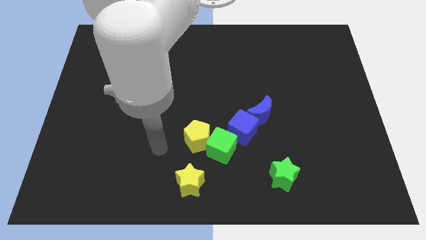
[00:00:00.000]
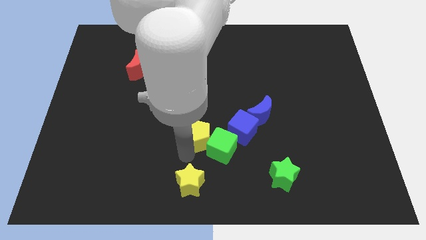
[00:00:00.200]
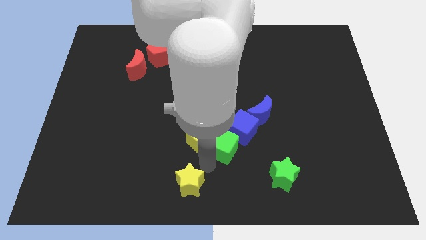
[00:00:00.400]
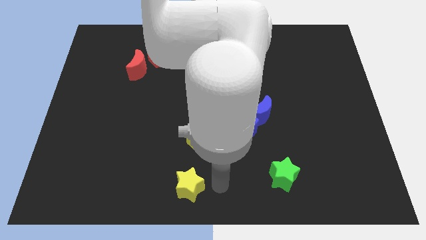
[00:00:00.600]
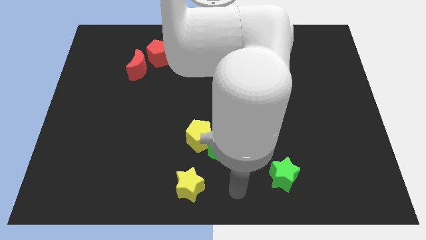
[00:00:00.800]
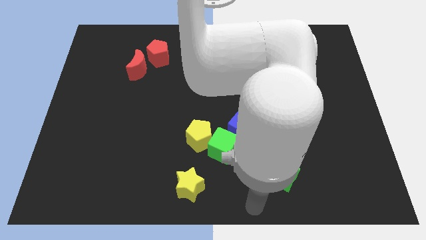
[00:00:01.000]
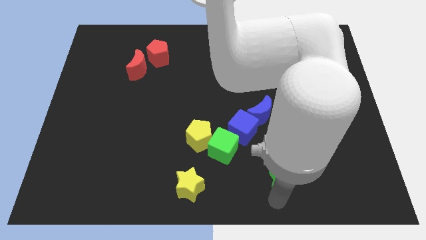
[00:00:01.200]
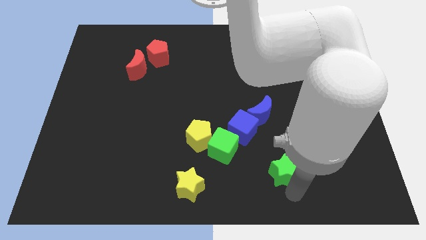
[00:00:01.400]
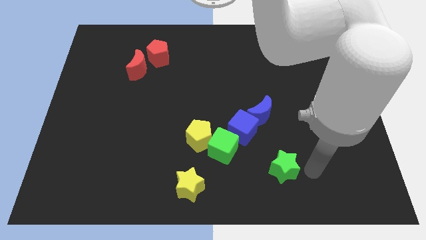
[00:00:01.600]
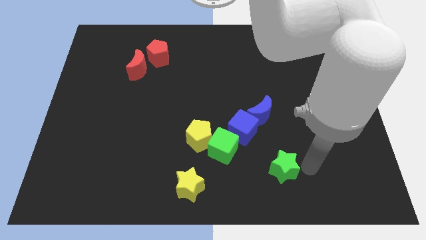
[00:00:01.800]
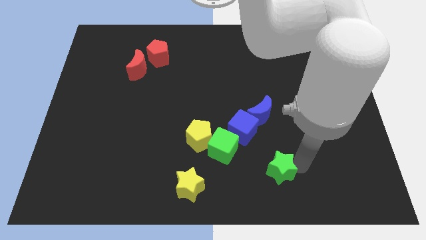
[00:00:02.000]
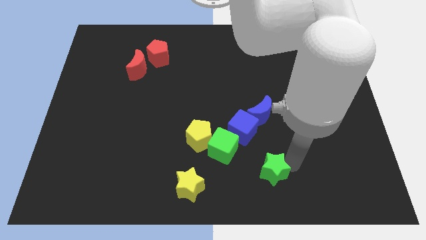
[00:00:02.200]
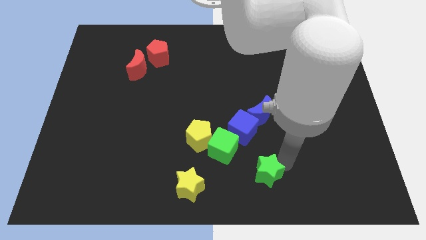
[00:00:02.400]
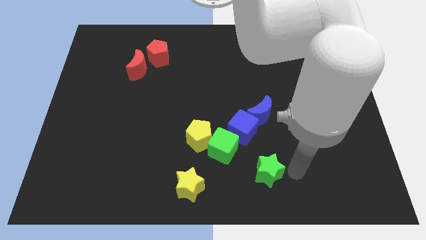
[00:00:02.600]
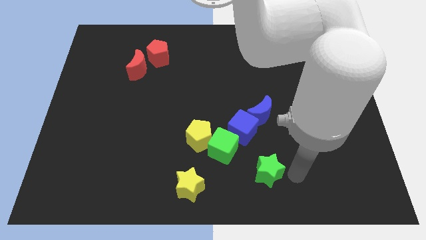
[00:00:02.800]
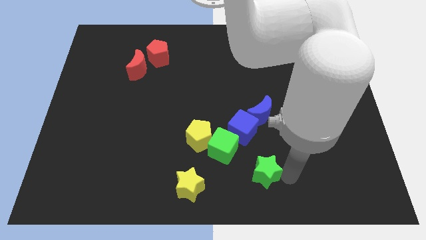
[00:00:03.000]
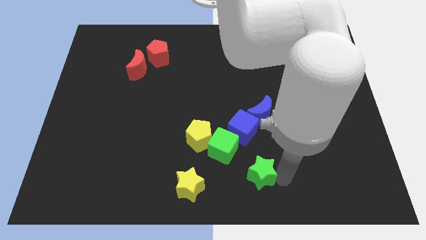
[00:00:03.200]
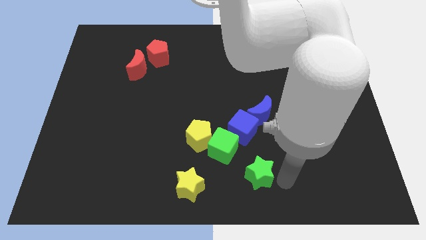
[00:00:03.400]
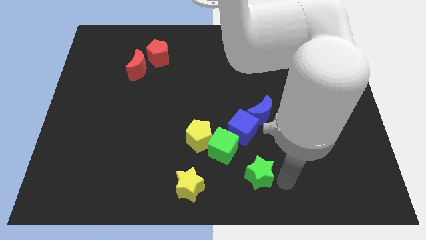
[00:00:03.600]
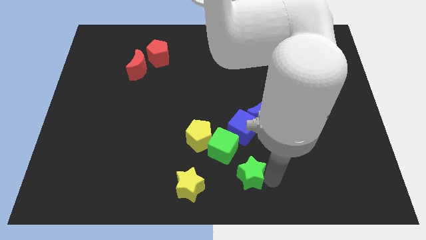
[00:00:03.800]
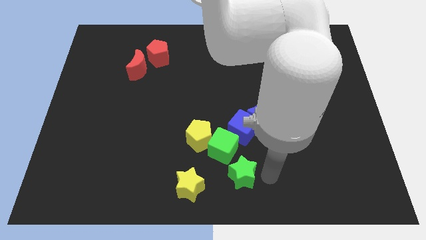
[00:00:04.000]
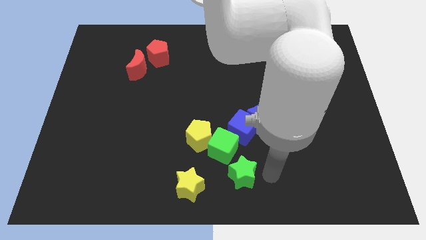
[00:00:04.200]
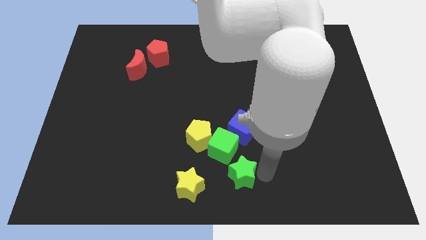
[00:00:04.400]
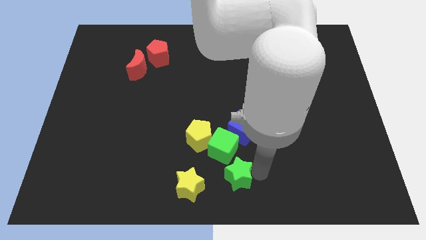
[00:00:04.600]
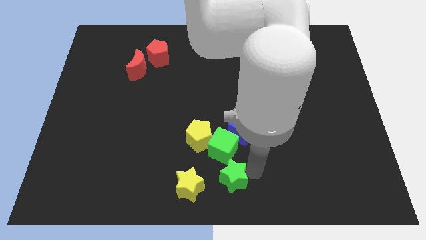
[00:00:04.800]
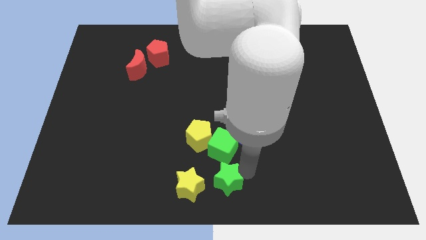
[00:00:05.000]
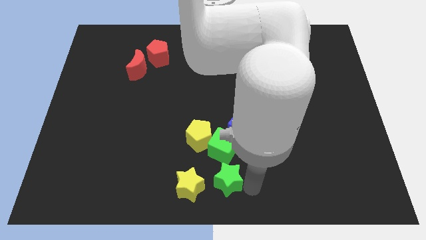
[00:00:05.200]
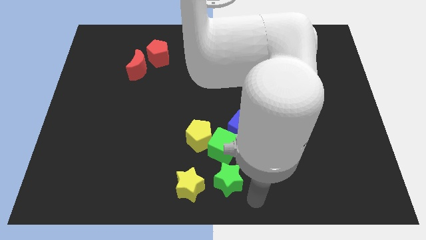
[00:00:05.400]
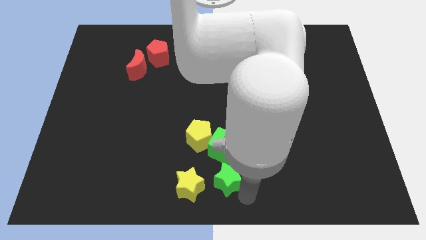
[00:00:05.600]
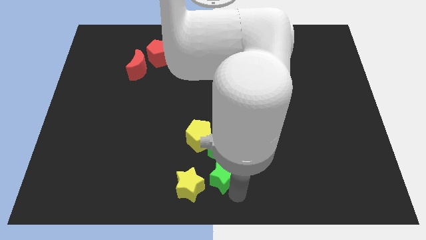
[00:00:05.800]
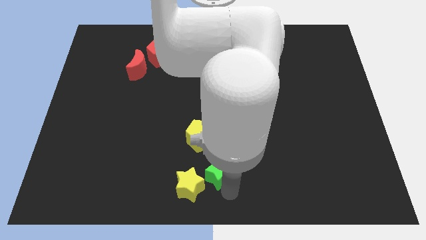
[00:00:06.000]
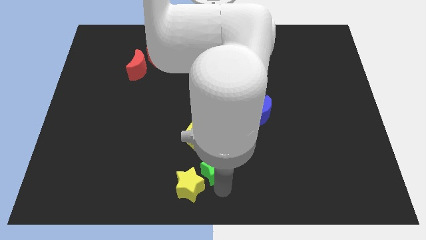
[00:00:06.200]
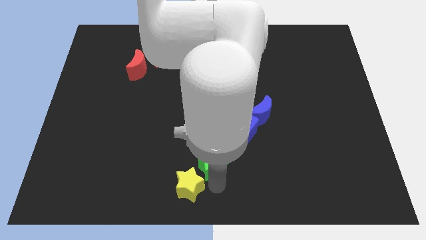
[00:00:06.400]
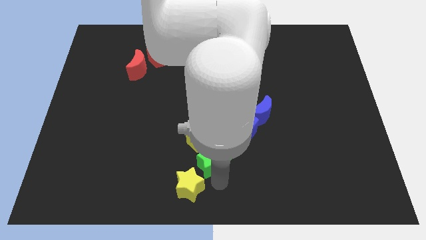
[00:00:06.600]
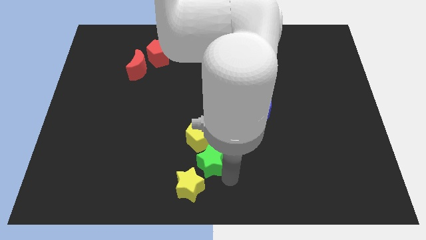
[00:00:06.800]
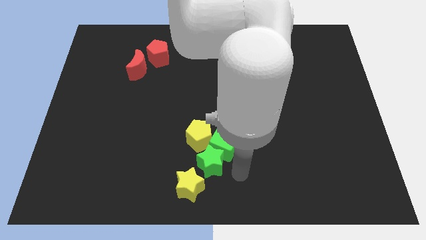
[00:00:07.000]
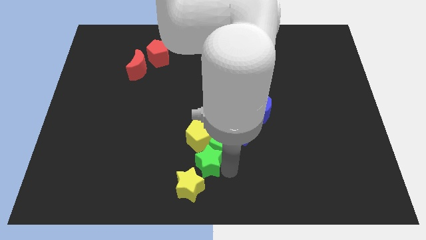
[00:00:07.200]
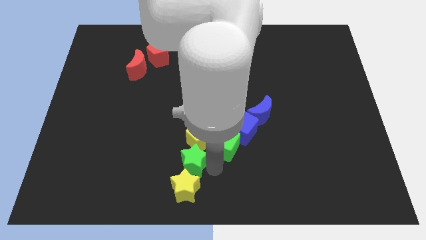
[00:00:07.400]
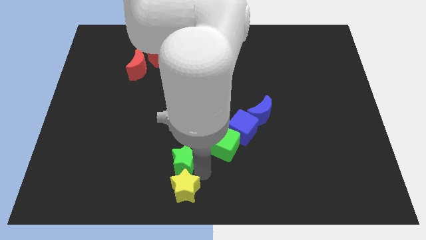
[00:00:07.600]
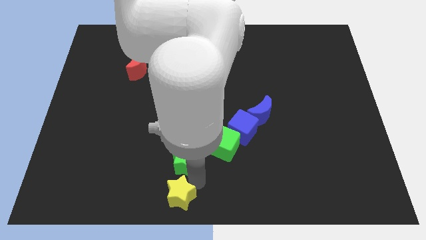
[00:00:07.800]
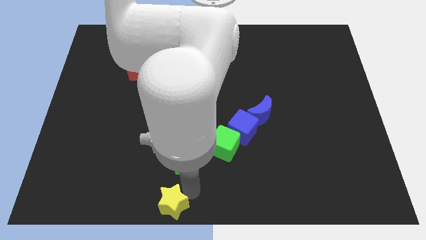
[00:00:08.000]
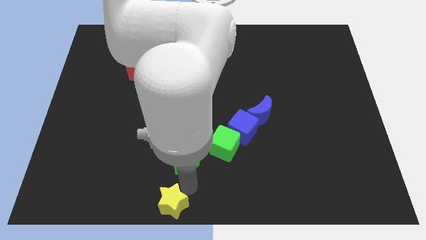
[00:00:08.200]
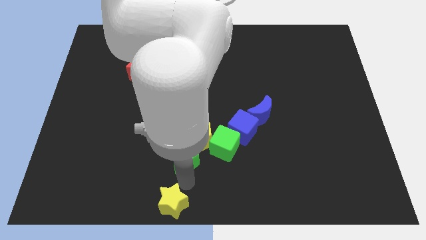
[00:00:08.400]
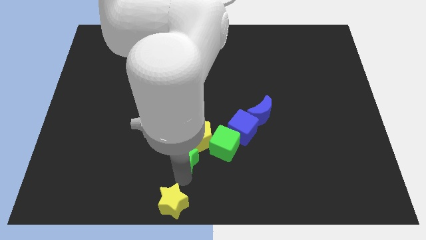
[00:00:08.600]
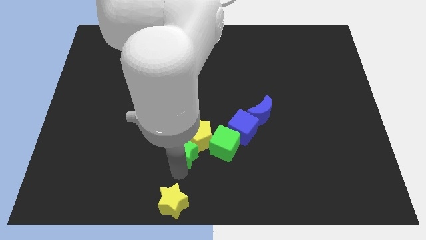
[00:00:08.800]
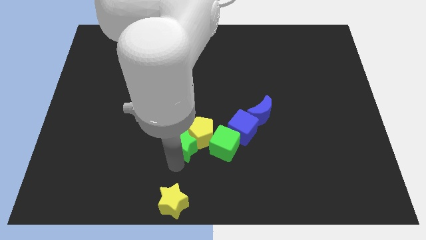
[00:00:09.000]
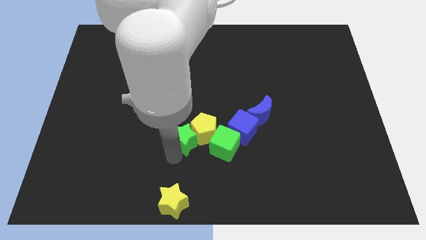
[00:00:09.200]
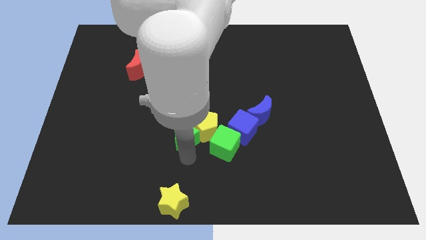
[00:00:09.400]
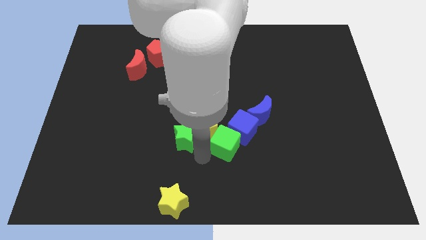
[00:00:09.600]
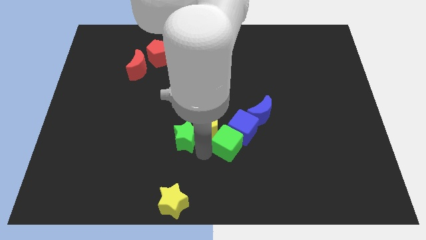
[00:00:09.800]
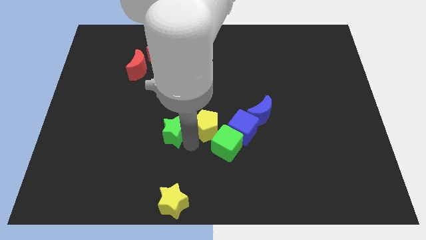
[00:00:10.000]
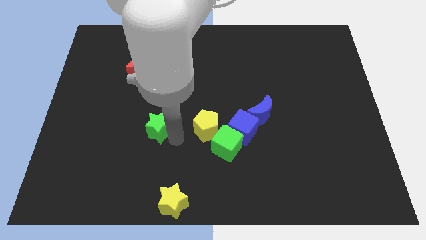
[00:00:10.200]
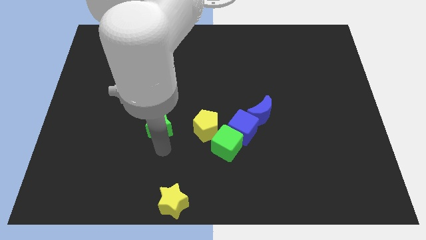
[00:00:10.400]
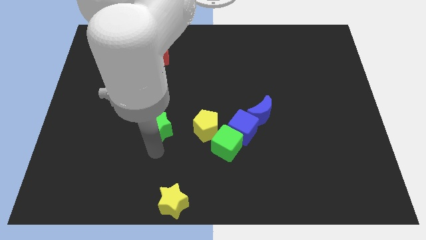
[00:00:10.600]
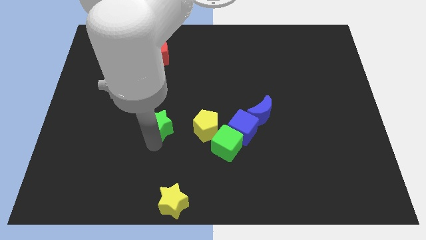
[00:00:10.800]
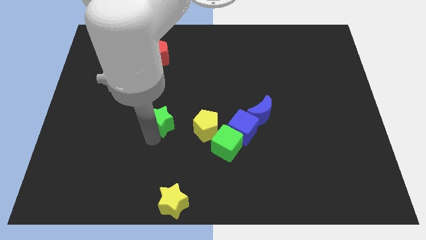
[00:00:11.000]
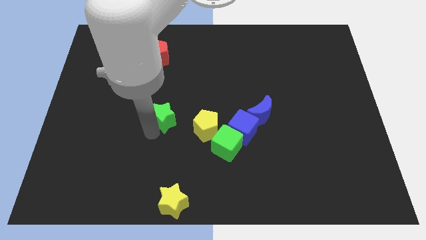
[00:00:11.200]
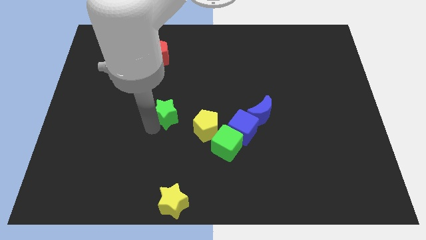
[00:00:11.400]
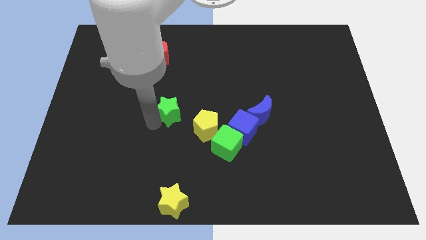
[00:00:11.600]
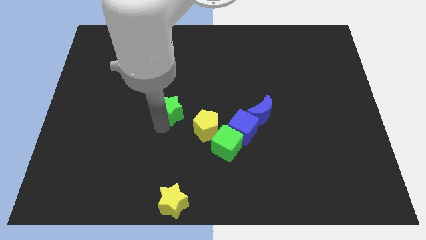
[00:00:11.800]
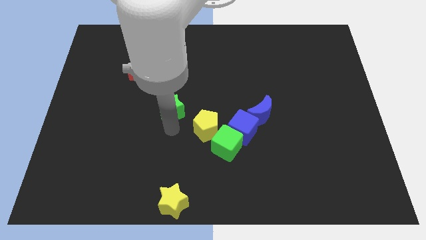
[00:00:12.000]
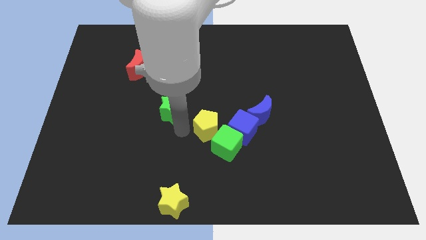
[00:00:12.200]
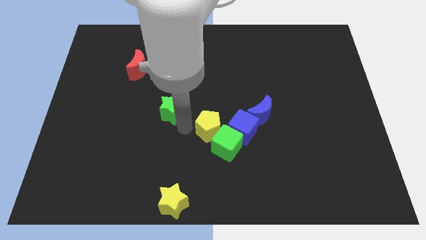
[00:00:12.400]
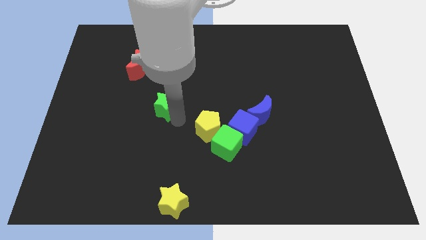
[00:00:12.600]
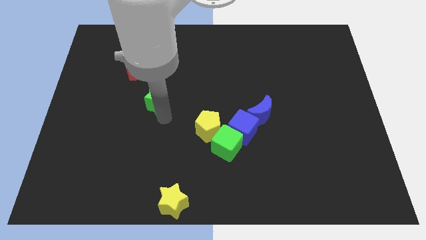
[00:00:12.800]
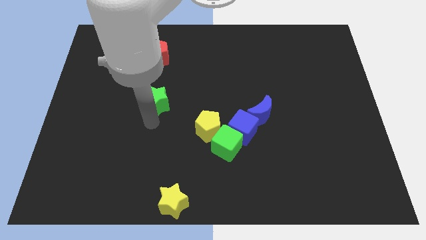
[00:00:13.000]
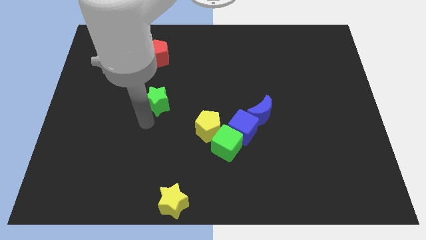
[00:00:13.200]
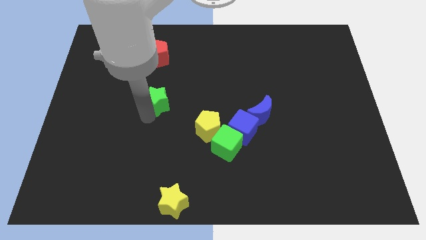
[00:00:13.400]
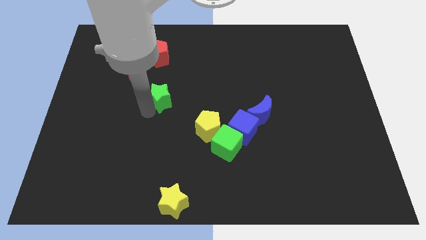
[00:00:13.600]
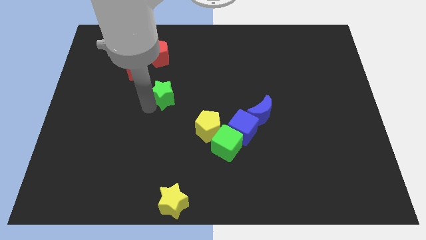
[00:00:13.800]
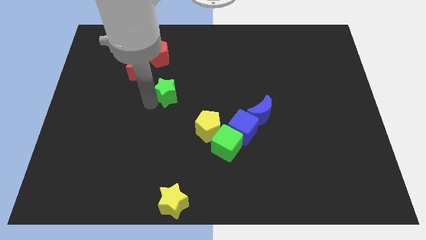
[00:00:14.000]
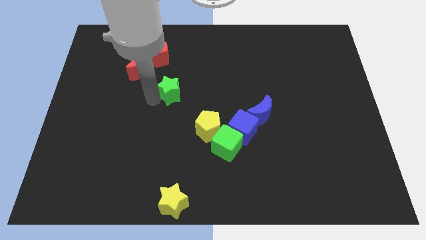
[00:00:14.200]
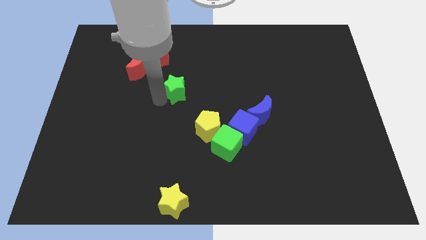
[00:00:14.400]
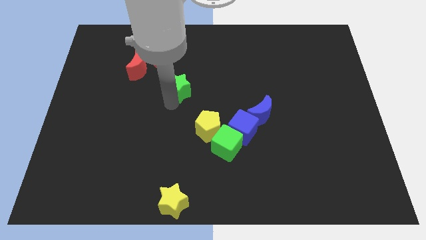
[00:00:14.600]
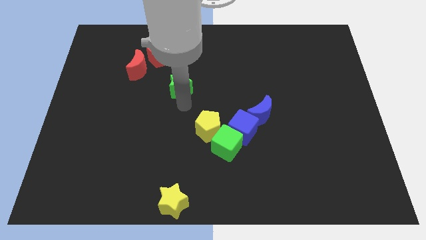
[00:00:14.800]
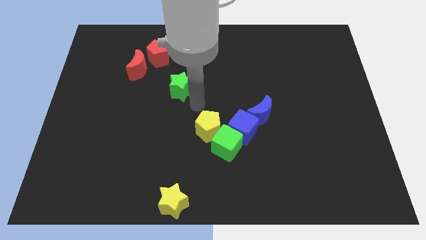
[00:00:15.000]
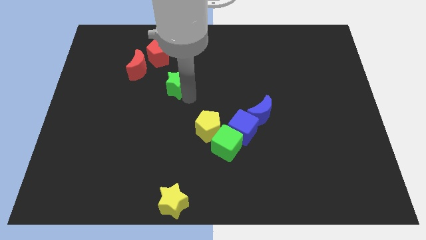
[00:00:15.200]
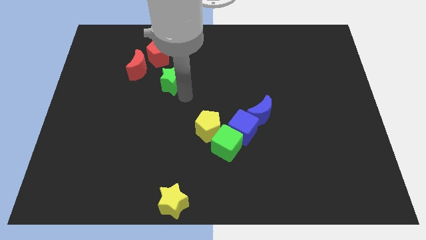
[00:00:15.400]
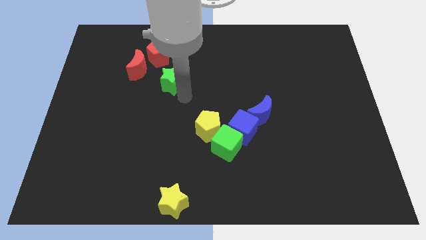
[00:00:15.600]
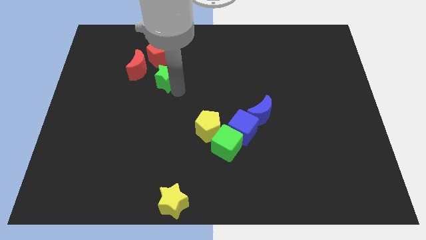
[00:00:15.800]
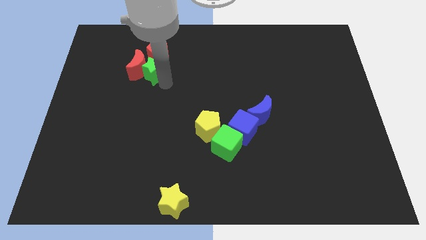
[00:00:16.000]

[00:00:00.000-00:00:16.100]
put the green star next to the red pentagon
